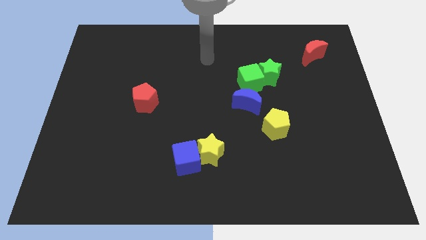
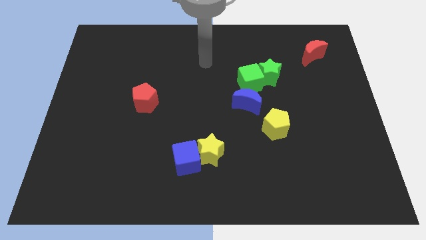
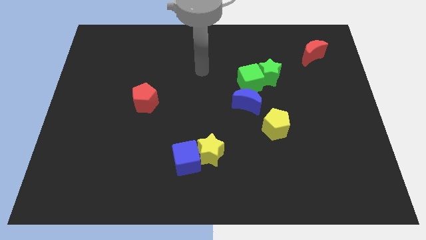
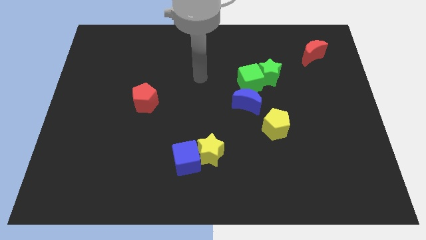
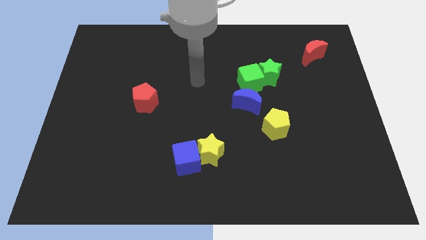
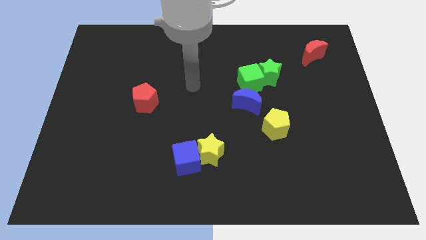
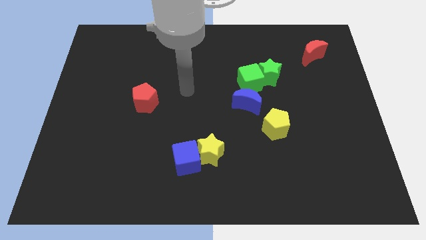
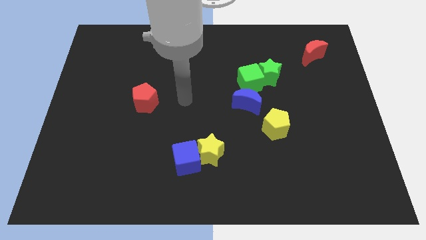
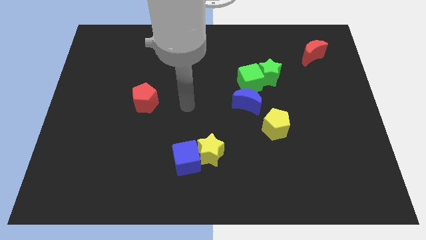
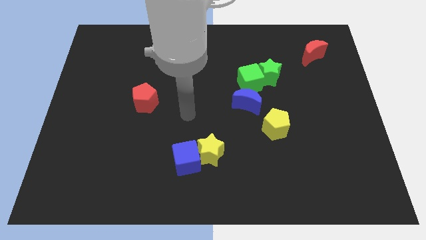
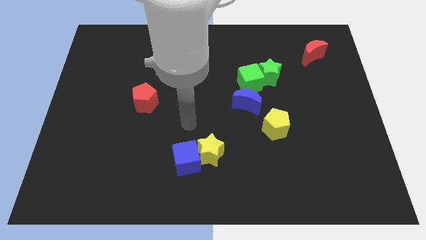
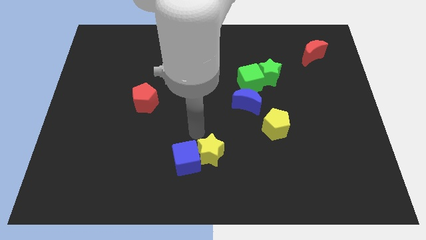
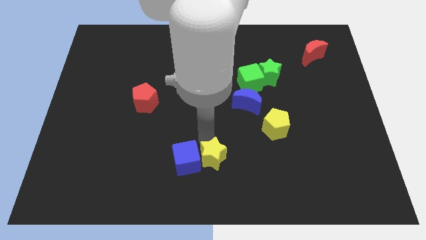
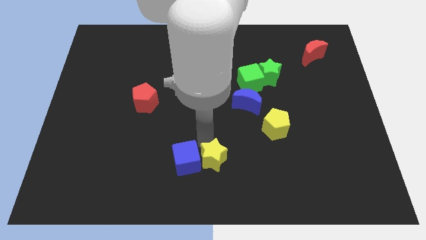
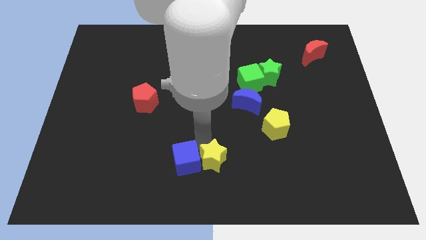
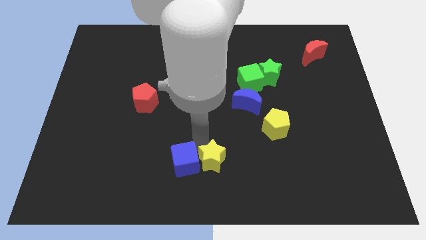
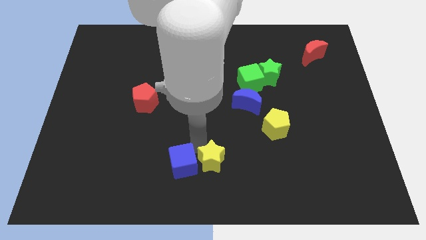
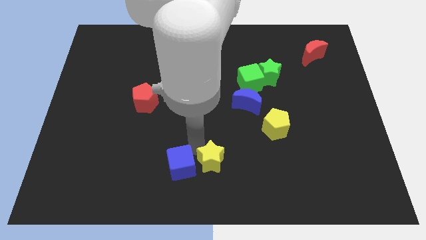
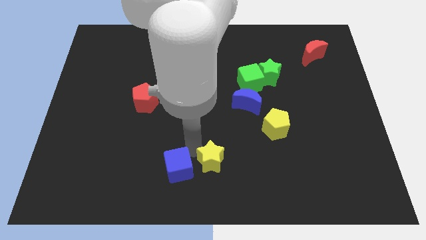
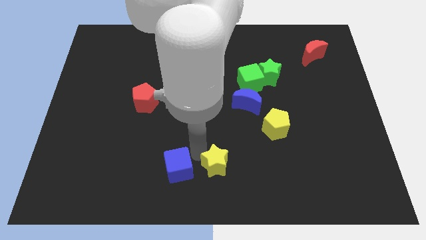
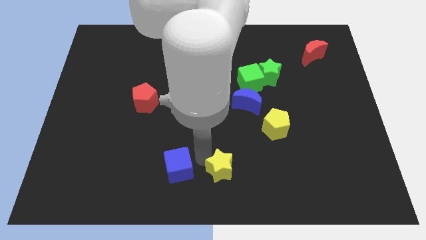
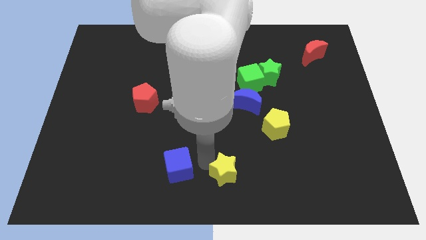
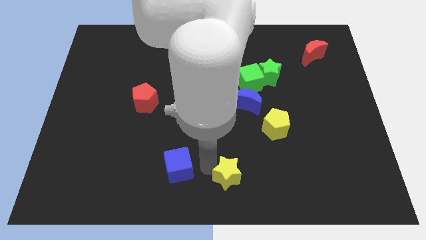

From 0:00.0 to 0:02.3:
move the blue cube away from the yellow star

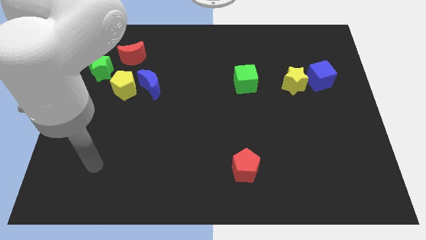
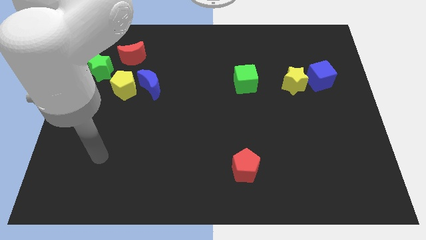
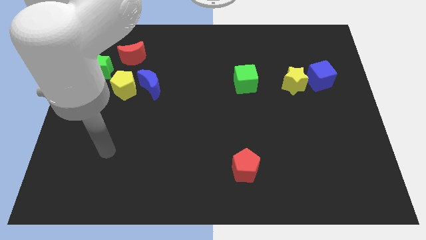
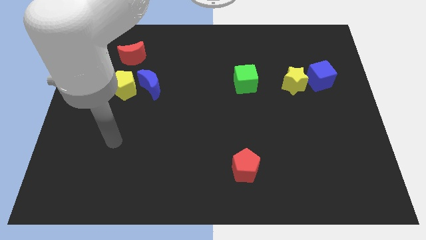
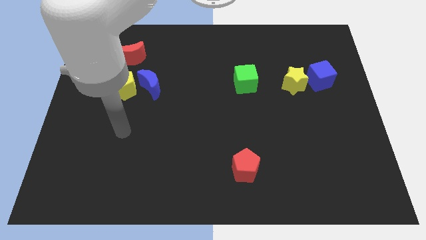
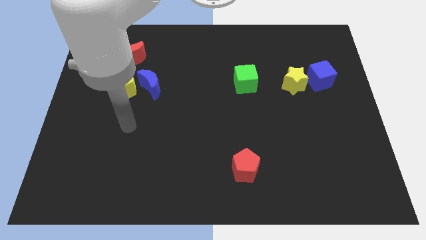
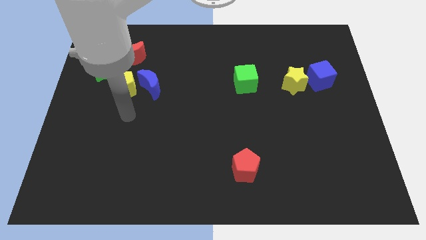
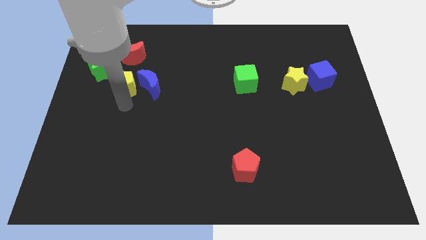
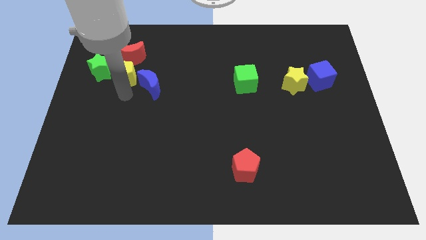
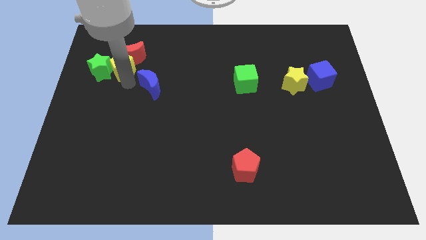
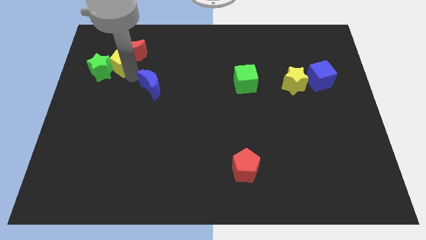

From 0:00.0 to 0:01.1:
pull the blue moon apart from the yellow pentagon

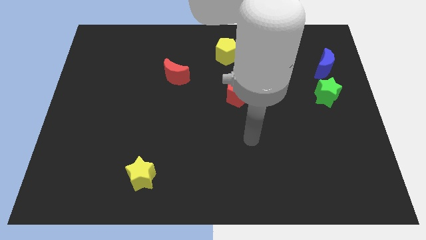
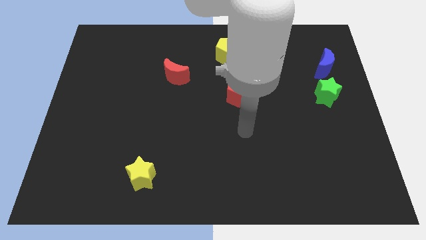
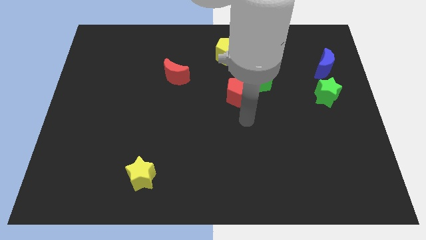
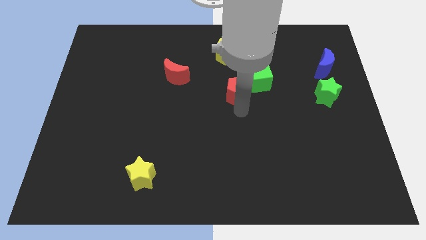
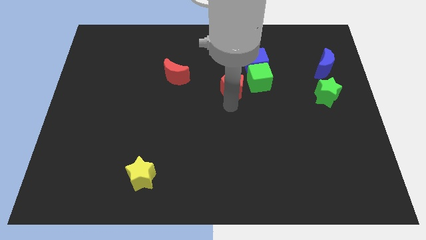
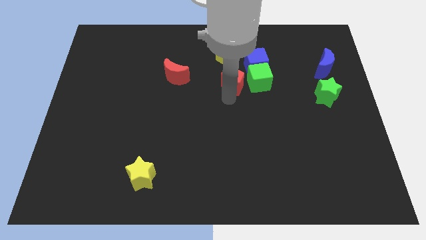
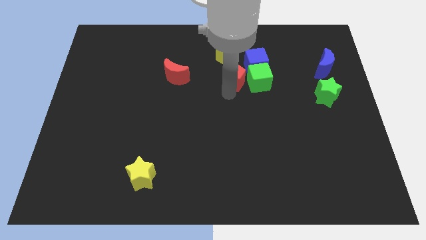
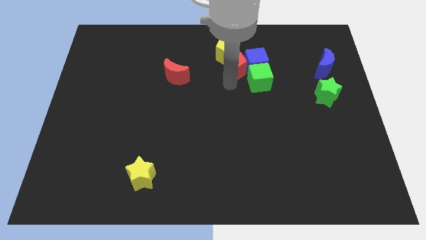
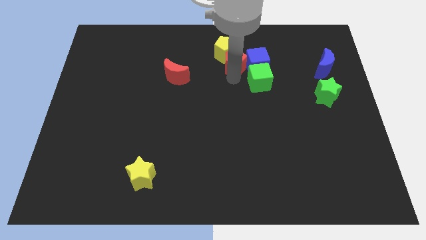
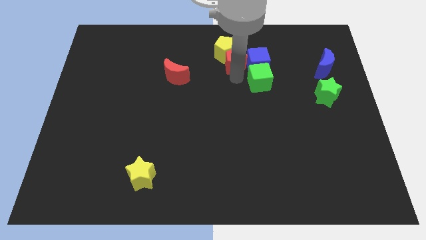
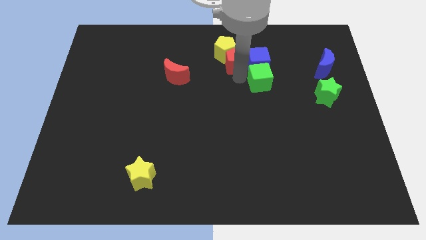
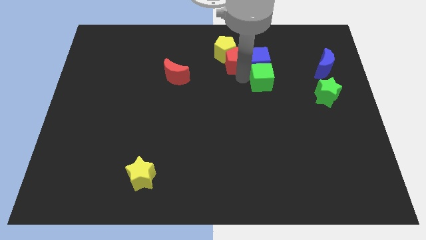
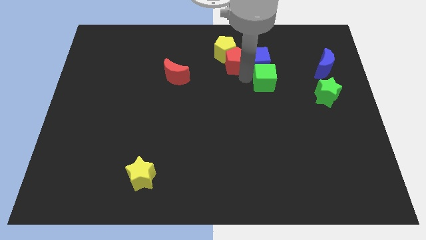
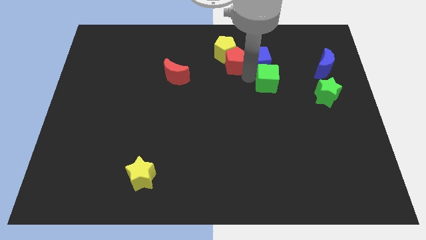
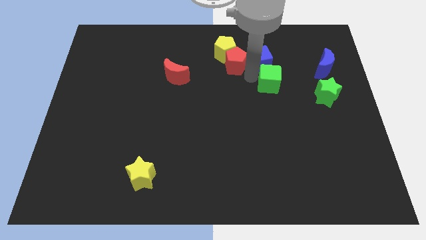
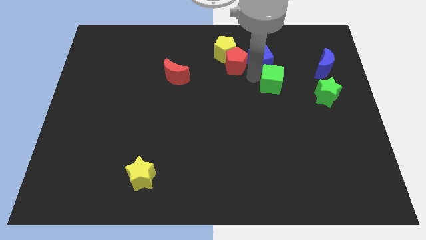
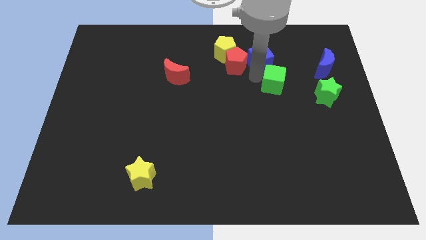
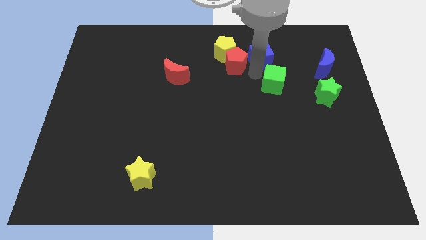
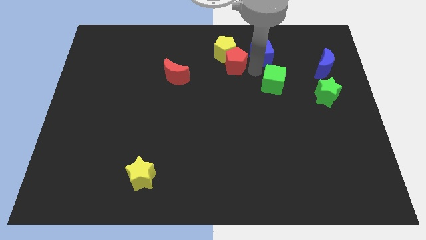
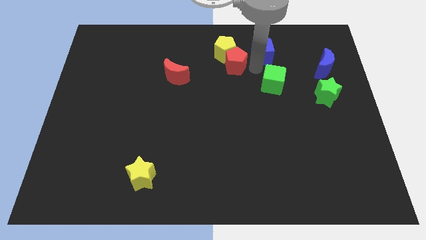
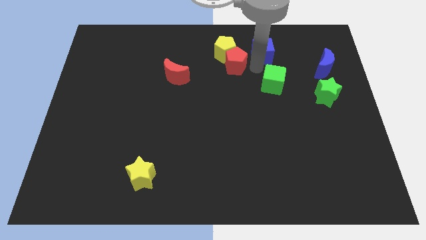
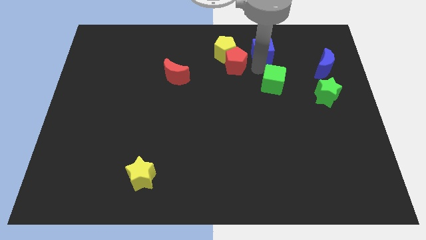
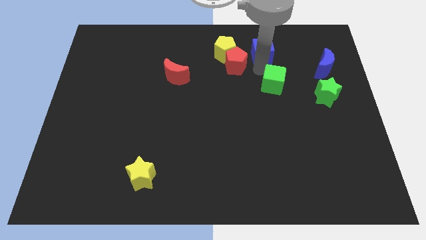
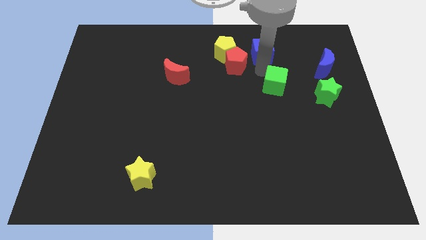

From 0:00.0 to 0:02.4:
move the green cube away from the blue cube and red pentagon

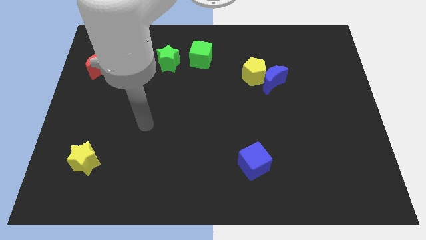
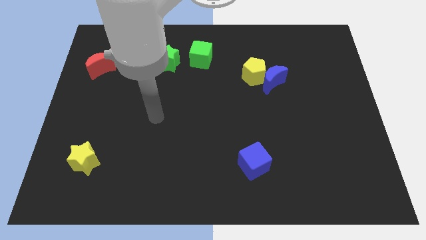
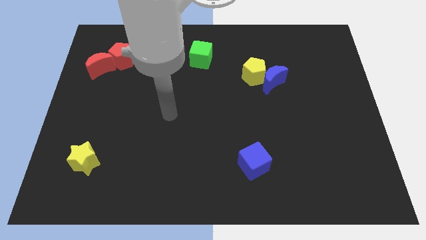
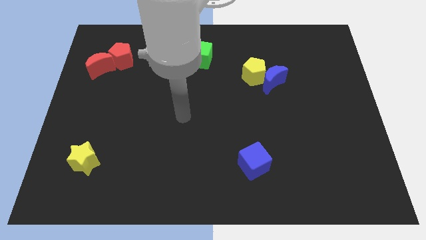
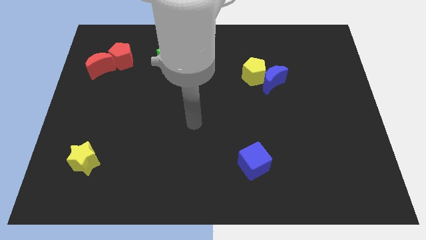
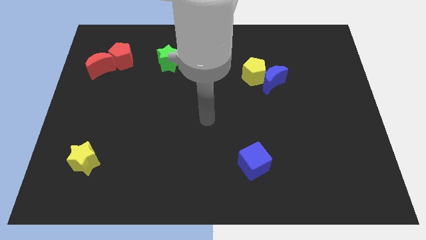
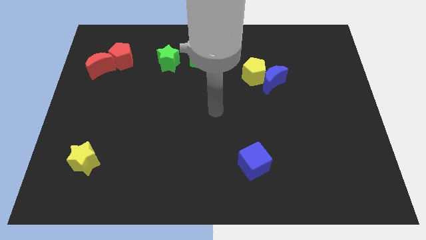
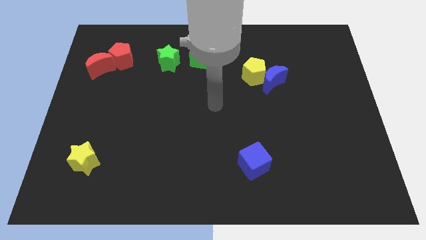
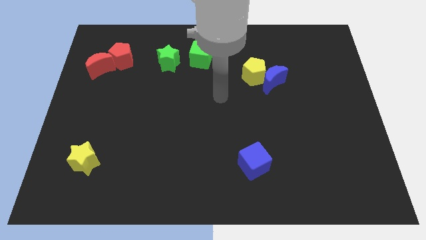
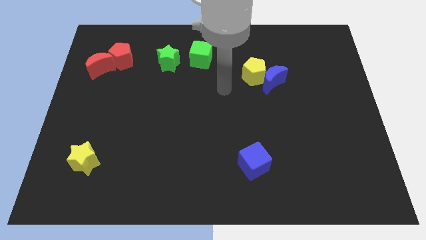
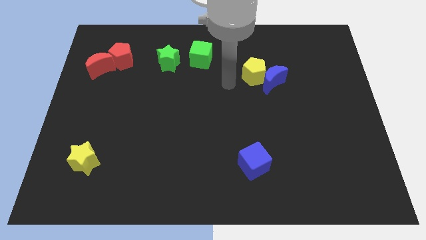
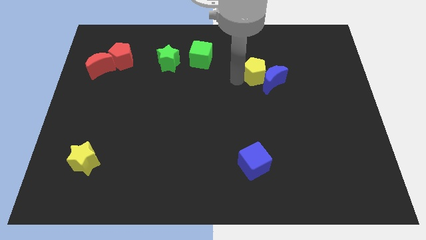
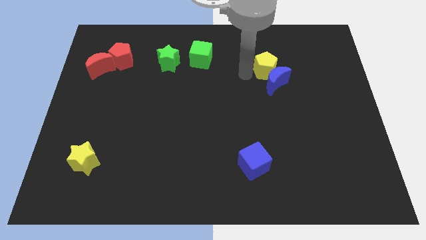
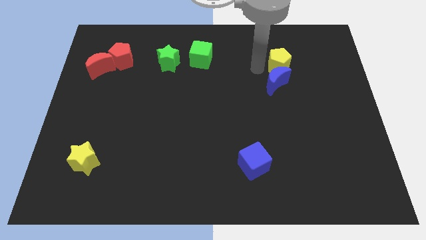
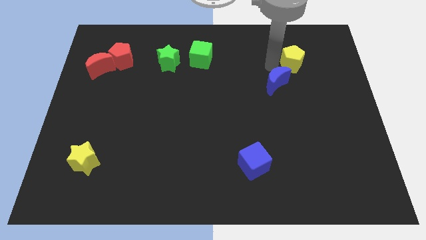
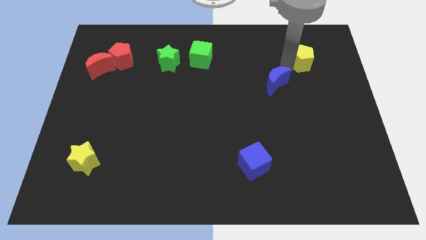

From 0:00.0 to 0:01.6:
move the blue moon away from the yellow pentagon

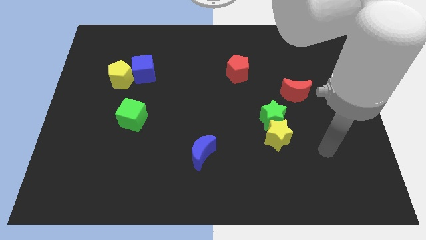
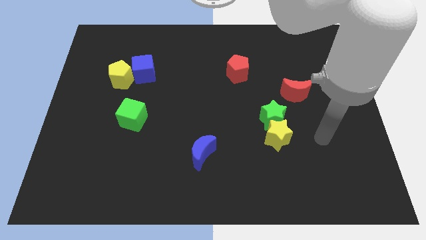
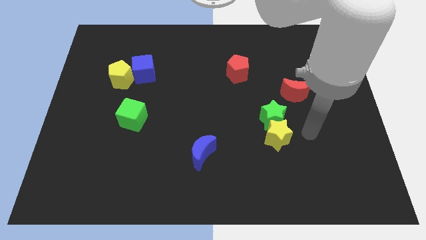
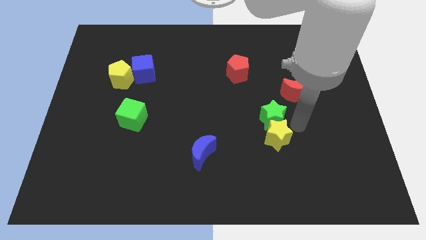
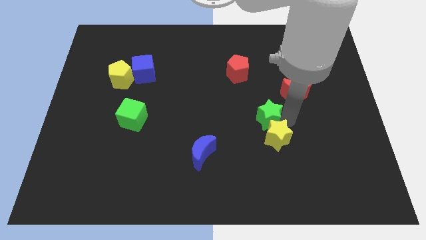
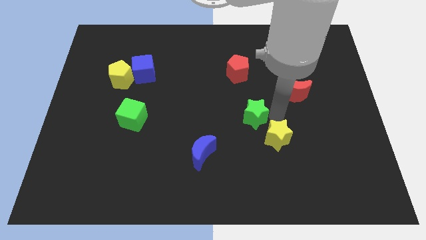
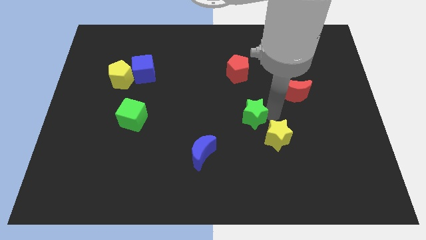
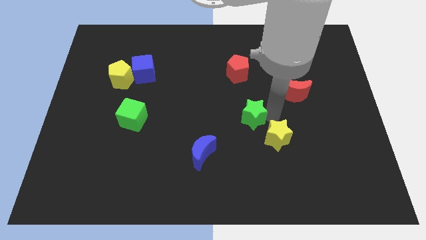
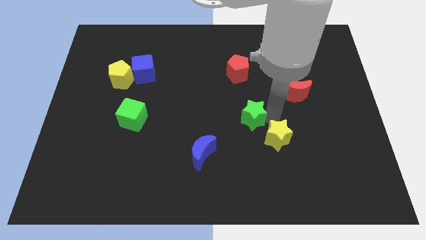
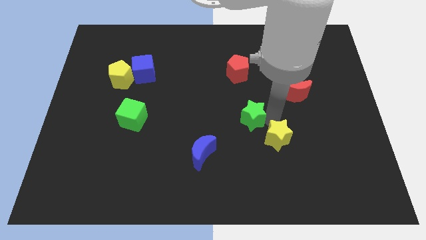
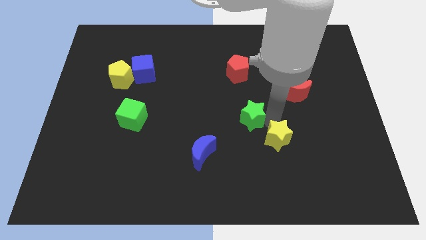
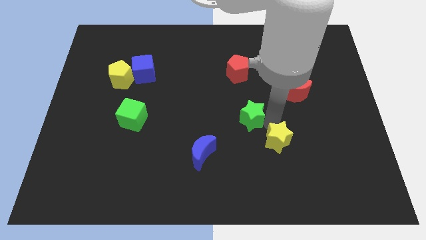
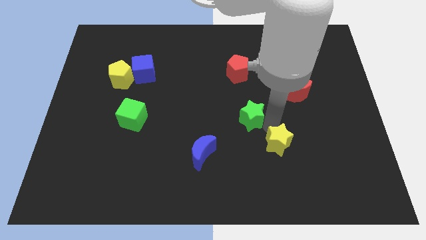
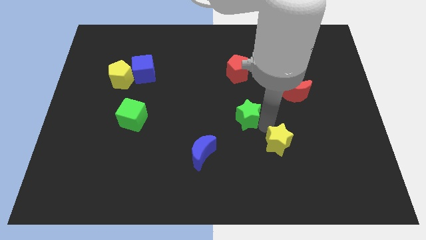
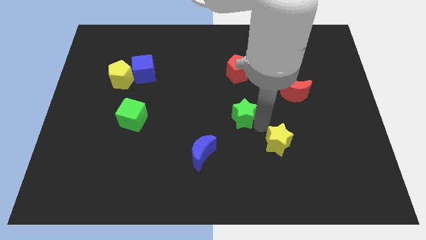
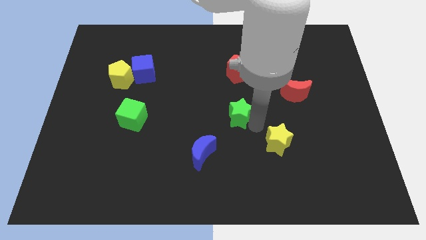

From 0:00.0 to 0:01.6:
move the yellow star away from the green star

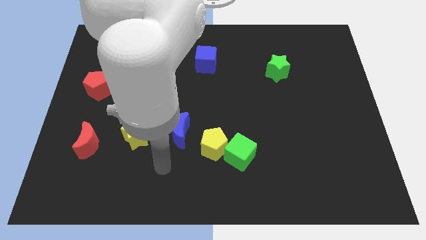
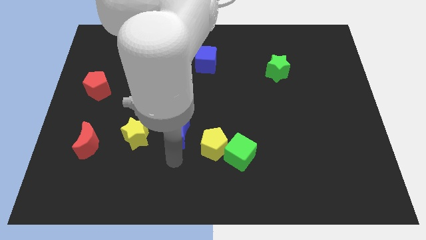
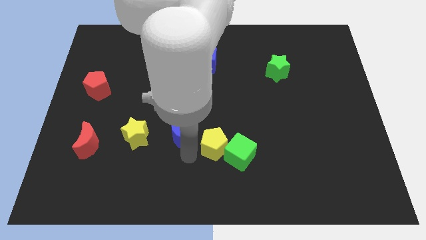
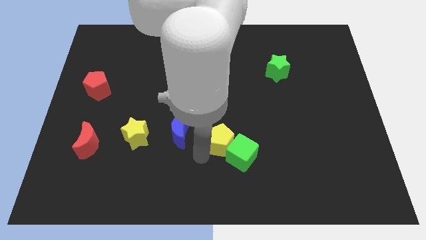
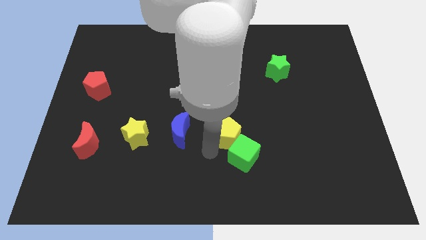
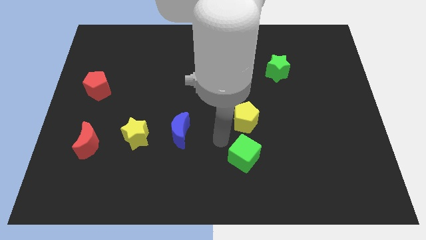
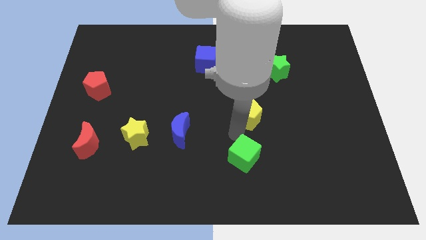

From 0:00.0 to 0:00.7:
separate the green cube from the yellow pentagon
